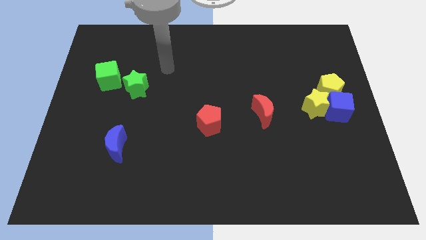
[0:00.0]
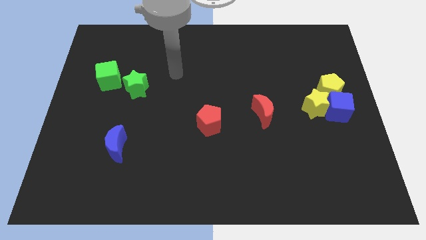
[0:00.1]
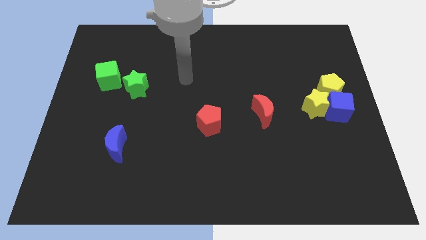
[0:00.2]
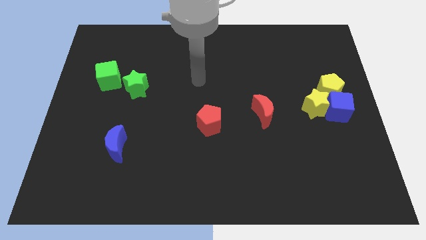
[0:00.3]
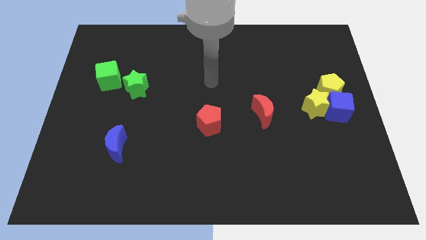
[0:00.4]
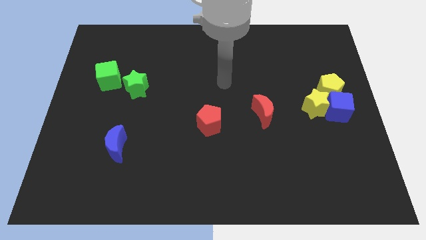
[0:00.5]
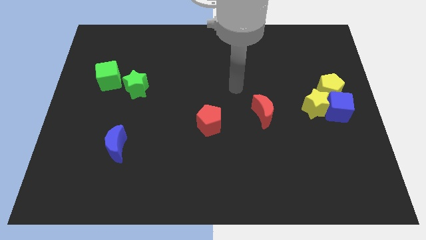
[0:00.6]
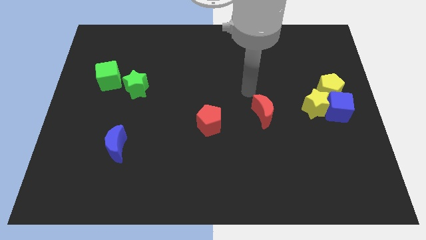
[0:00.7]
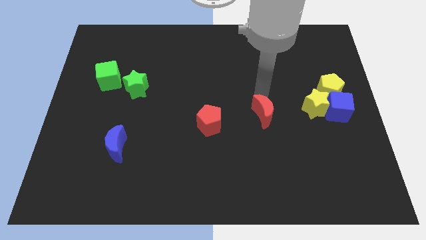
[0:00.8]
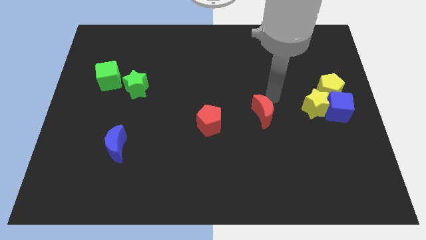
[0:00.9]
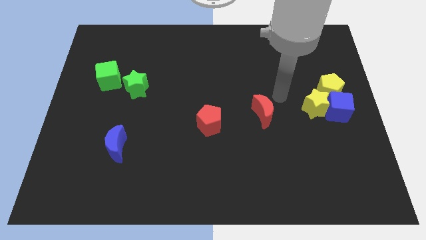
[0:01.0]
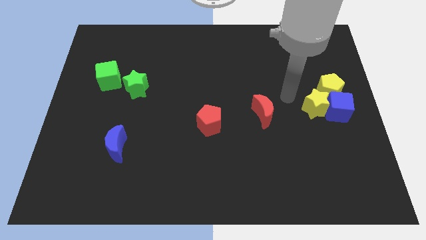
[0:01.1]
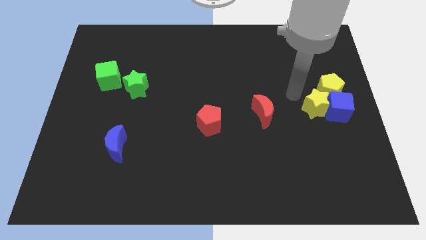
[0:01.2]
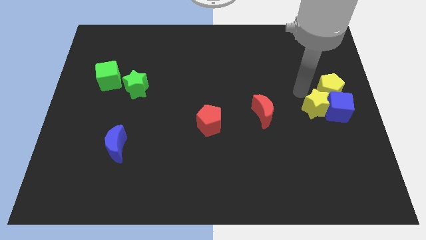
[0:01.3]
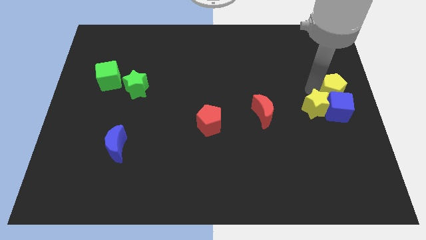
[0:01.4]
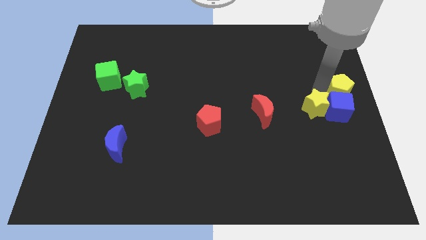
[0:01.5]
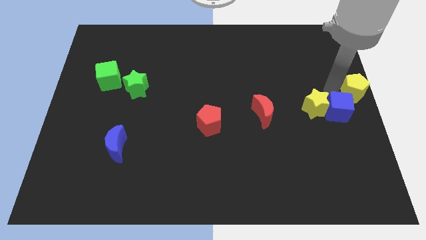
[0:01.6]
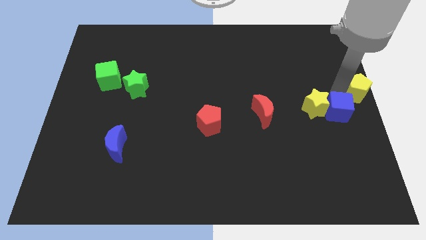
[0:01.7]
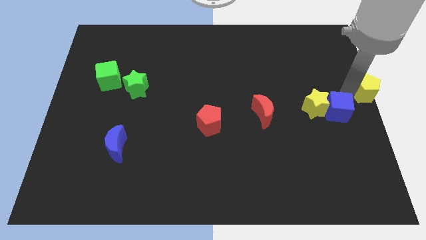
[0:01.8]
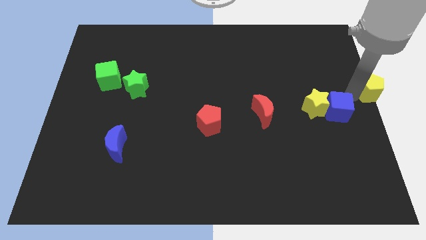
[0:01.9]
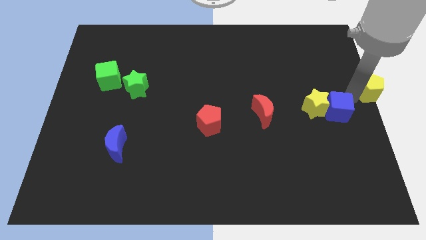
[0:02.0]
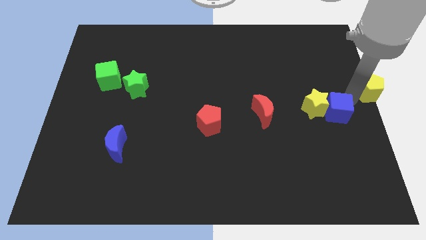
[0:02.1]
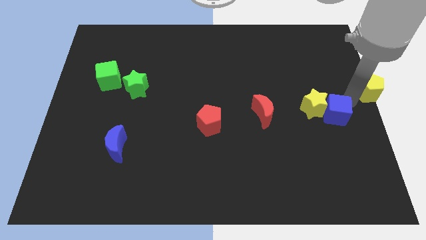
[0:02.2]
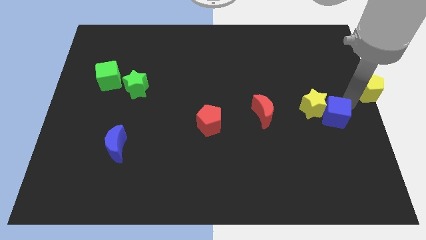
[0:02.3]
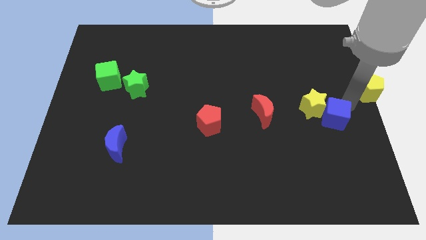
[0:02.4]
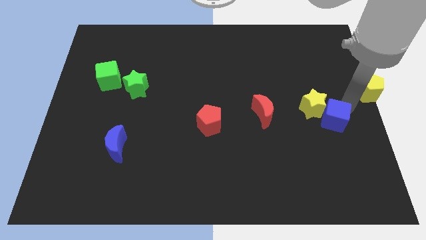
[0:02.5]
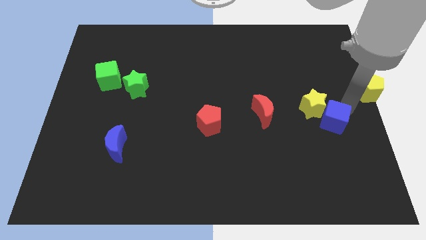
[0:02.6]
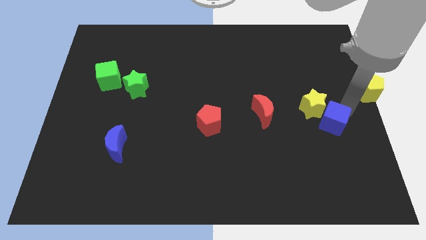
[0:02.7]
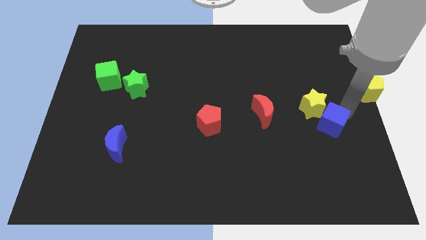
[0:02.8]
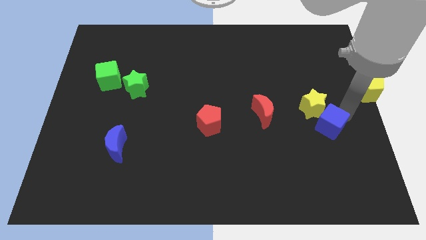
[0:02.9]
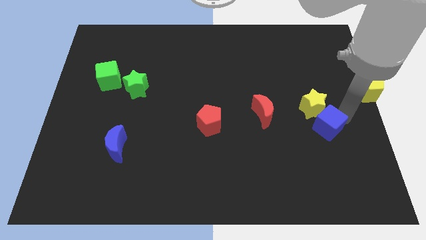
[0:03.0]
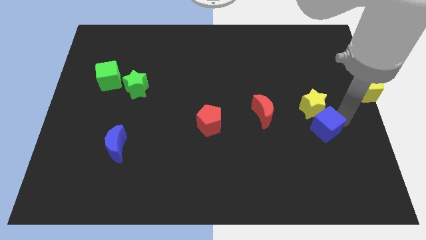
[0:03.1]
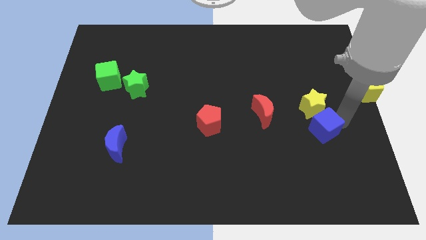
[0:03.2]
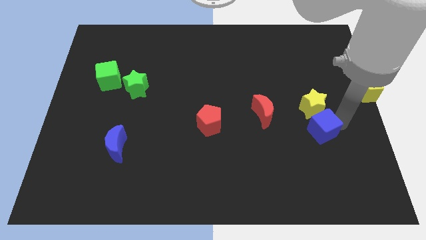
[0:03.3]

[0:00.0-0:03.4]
slightly push the blue cube down and to the left diagonally

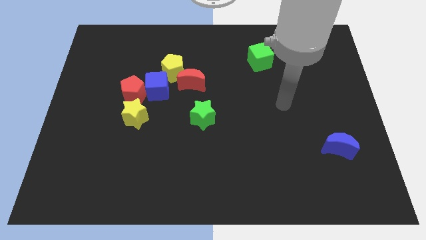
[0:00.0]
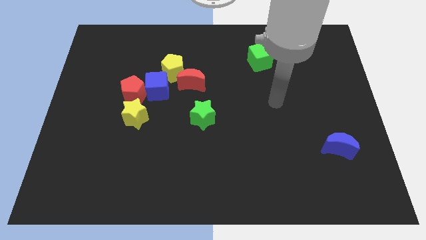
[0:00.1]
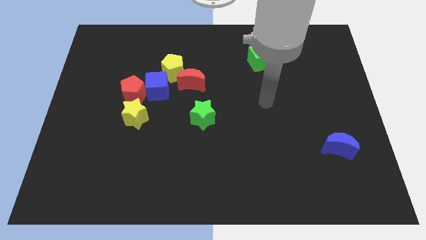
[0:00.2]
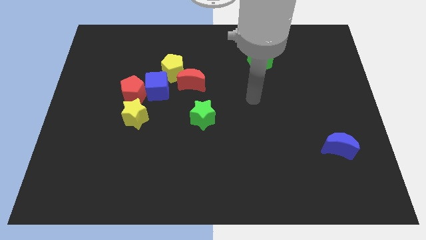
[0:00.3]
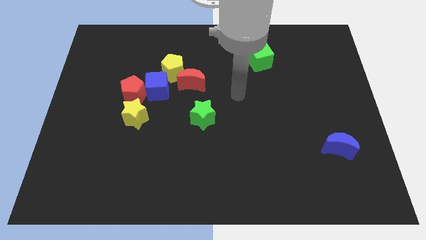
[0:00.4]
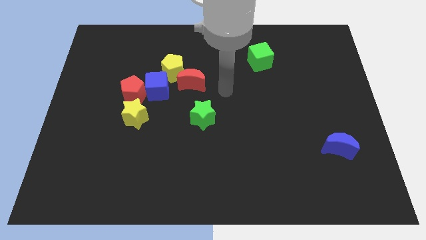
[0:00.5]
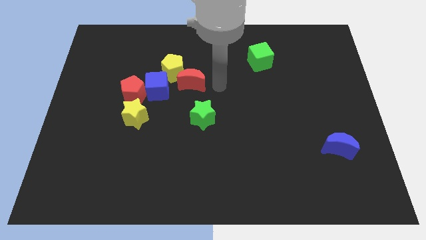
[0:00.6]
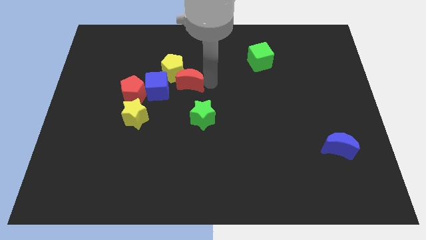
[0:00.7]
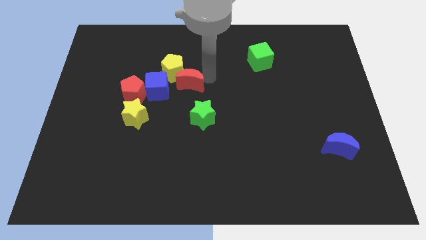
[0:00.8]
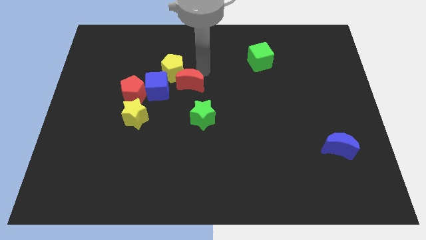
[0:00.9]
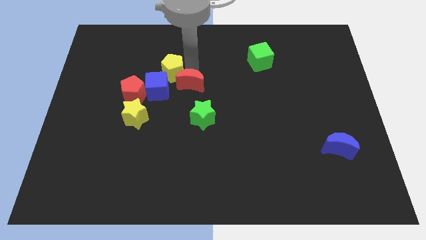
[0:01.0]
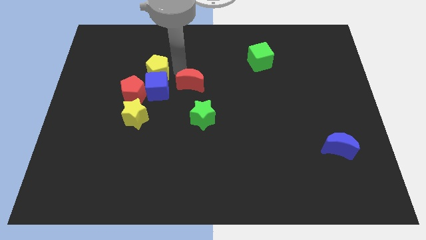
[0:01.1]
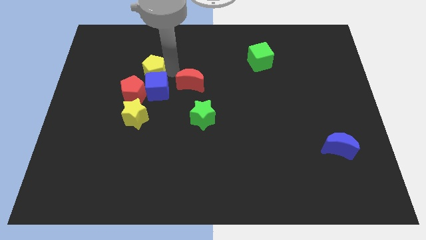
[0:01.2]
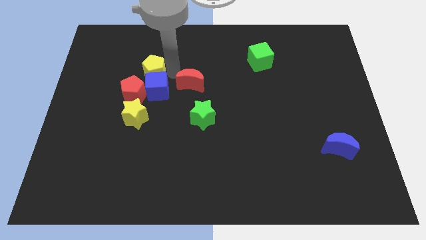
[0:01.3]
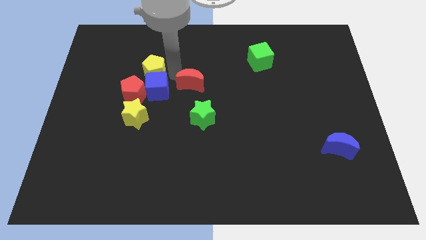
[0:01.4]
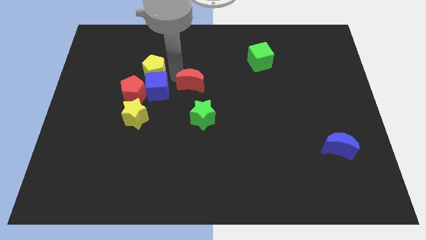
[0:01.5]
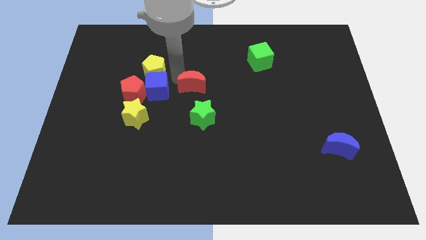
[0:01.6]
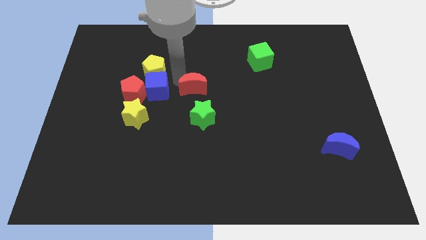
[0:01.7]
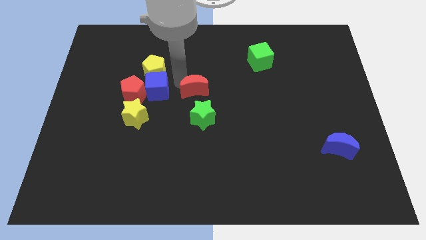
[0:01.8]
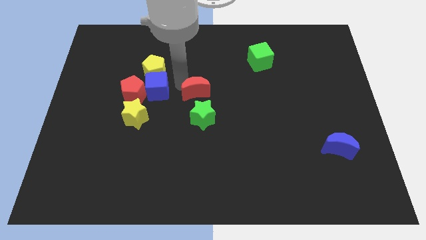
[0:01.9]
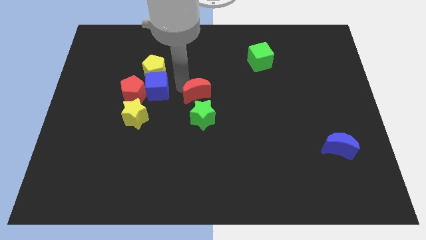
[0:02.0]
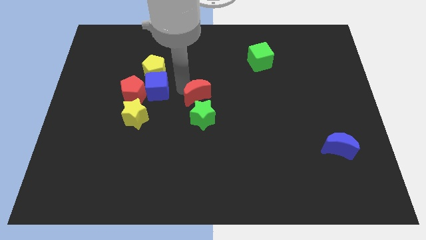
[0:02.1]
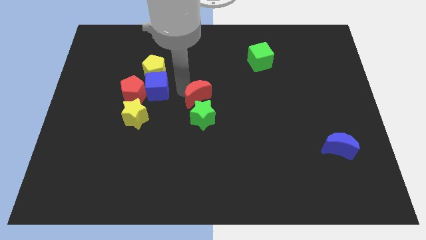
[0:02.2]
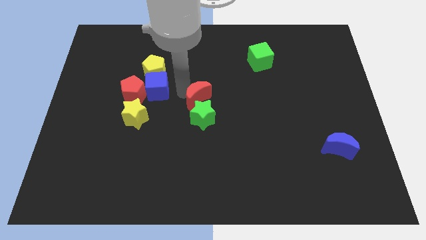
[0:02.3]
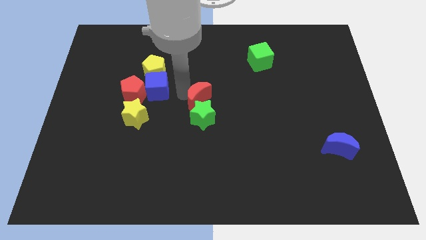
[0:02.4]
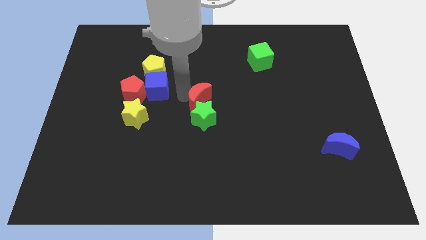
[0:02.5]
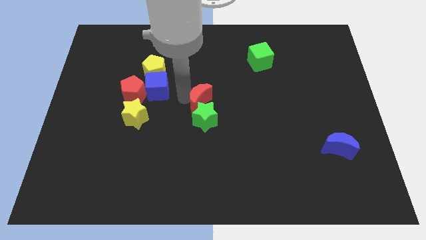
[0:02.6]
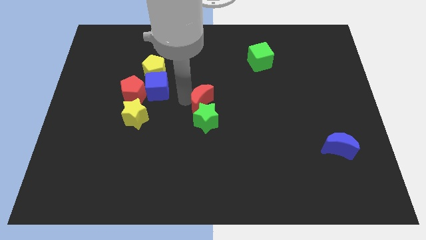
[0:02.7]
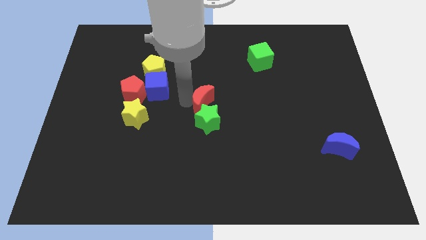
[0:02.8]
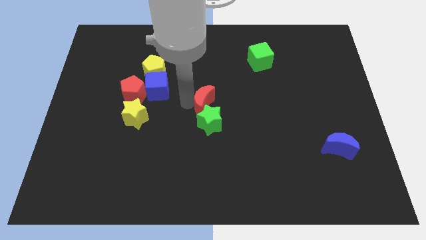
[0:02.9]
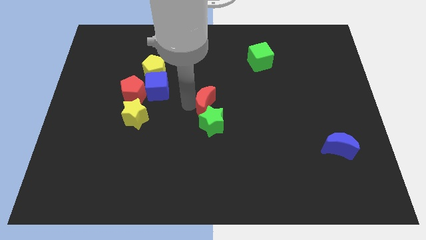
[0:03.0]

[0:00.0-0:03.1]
move the red moon downwards and then right a little

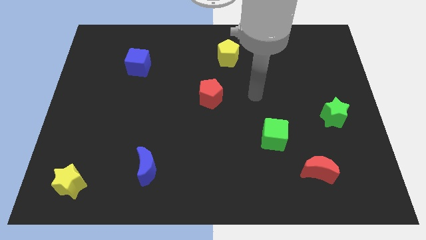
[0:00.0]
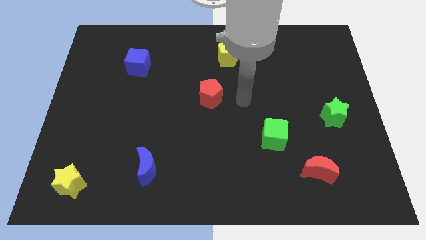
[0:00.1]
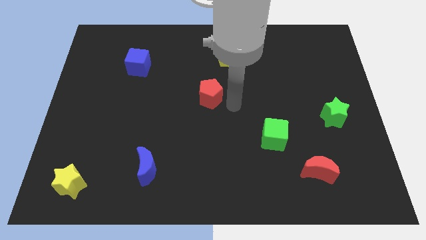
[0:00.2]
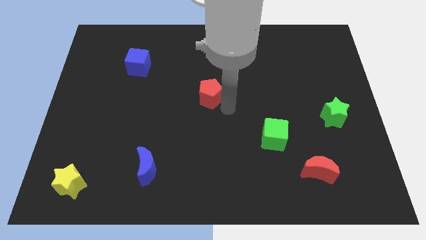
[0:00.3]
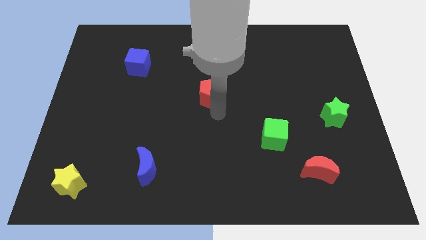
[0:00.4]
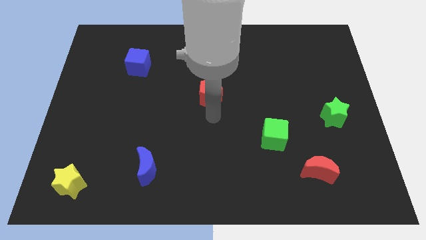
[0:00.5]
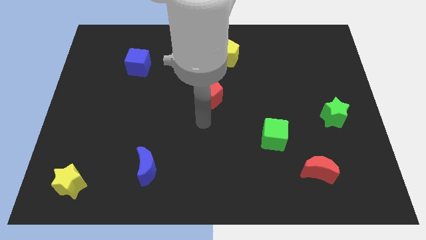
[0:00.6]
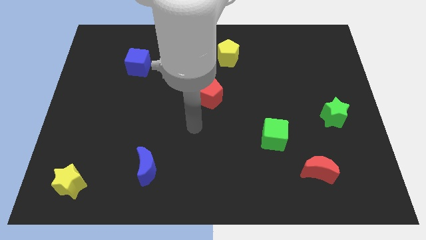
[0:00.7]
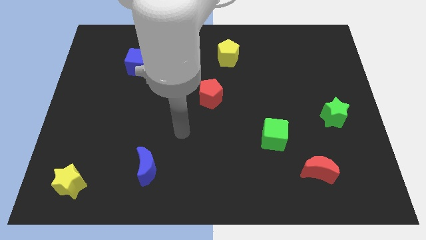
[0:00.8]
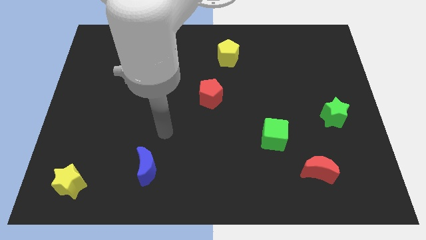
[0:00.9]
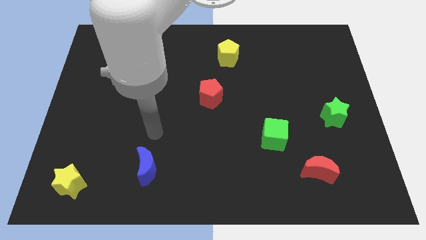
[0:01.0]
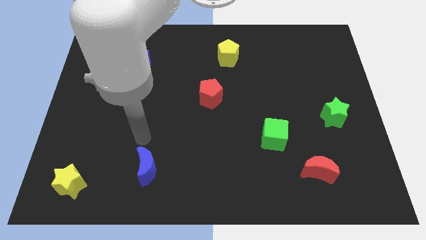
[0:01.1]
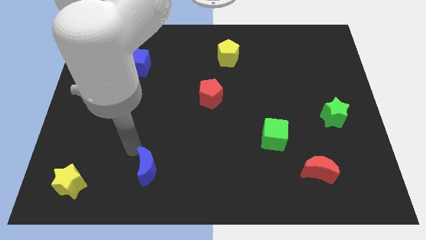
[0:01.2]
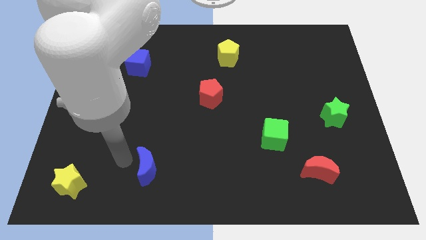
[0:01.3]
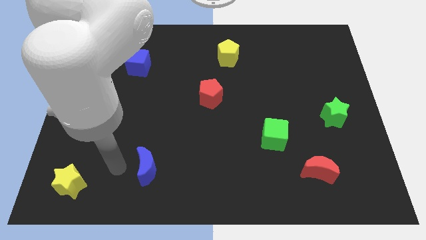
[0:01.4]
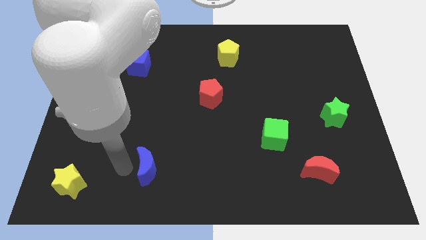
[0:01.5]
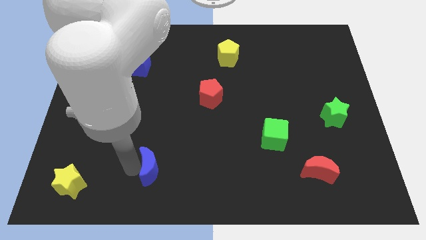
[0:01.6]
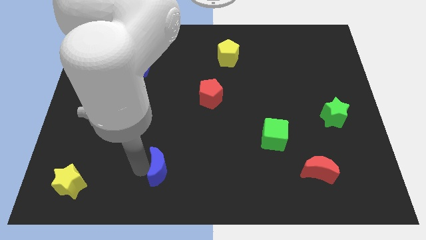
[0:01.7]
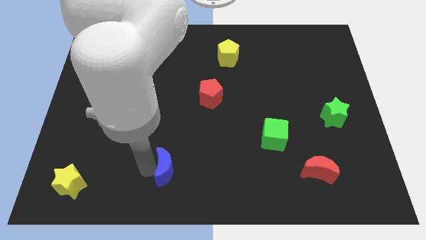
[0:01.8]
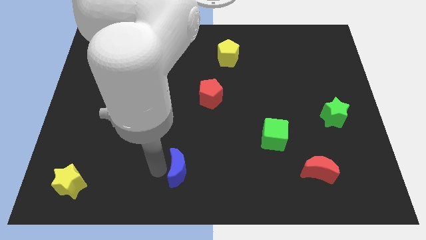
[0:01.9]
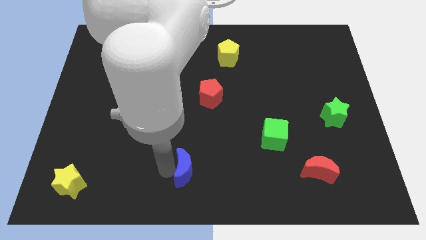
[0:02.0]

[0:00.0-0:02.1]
push the blue moon to the right somewhat
